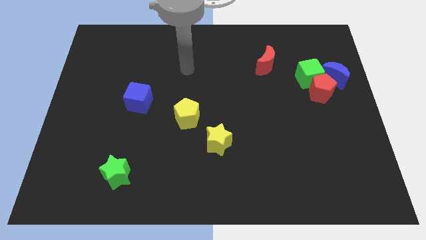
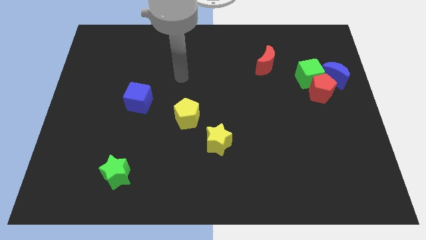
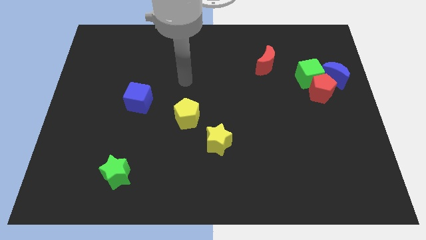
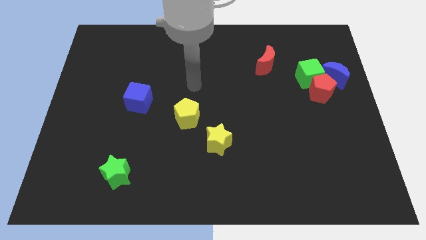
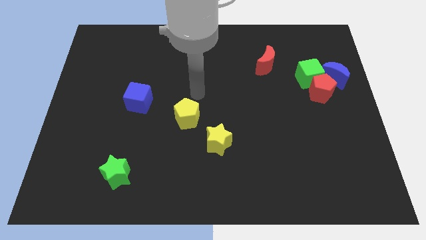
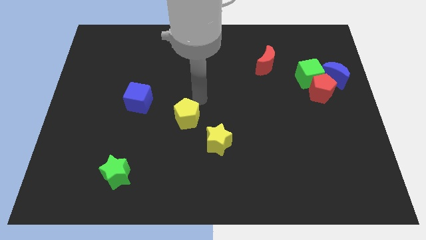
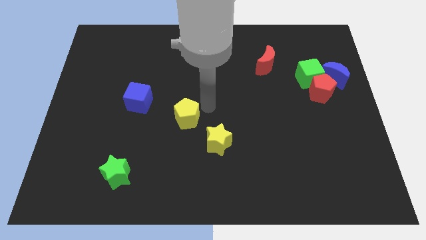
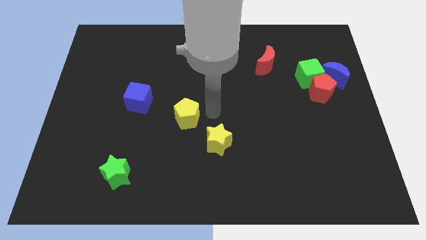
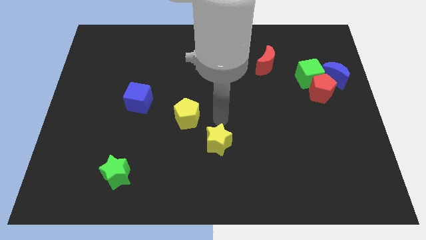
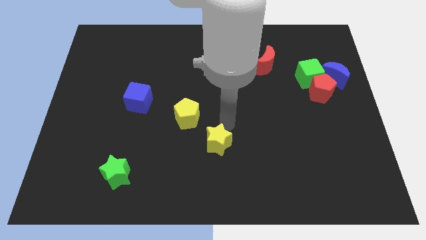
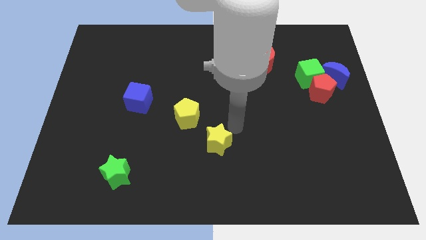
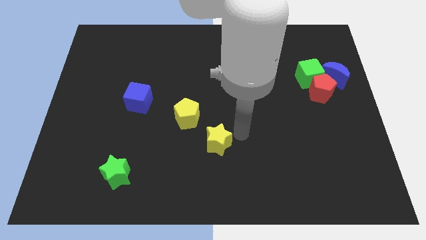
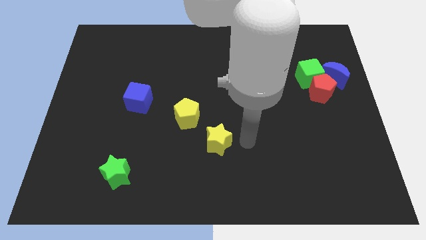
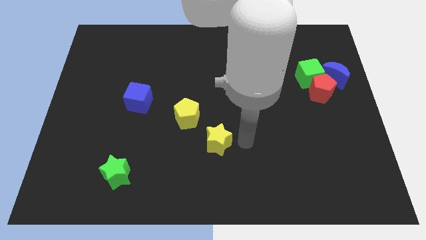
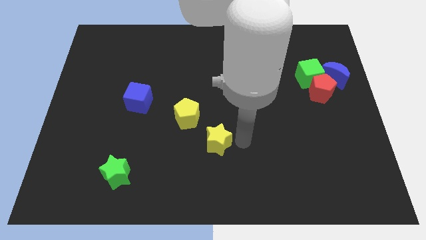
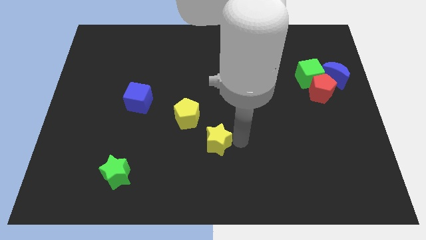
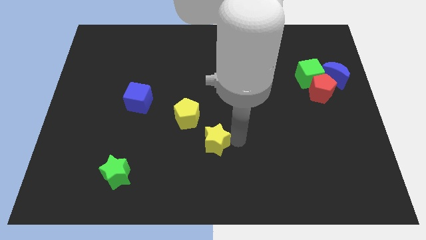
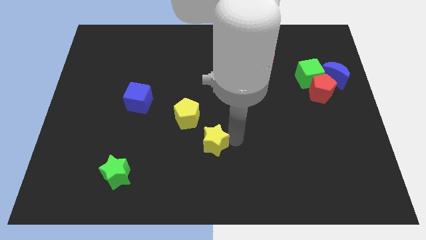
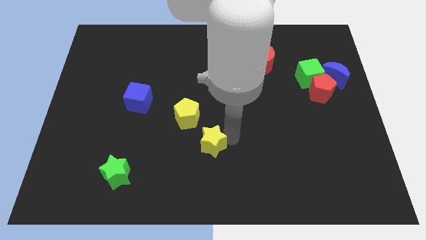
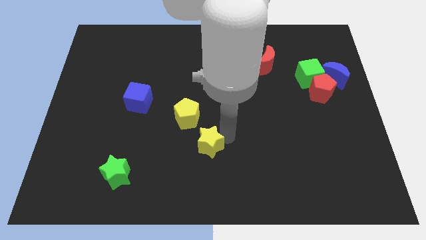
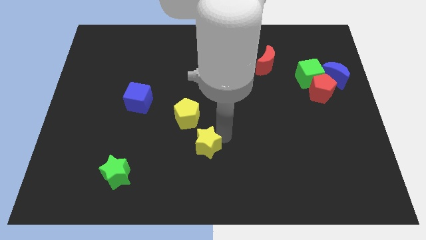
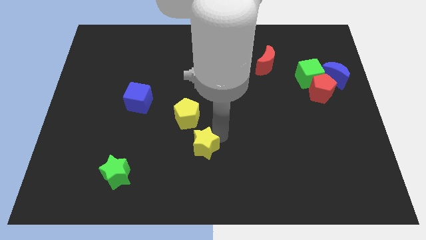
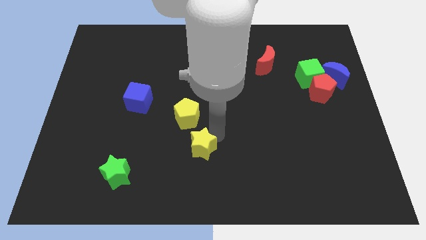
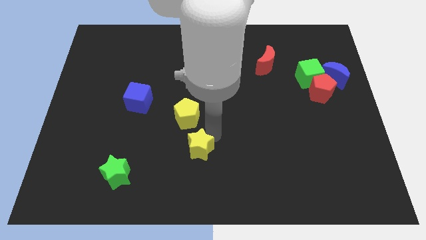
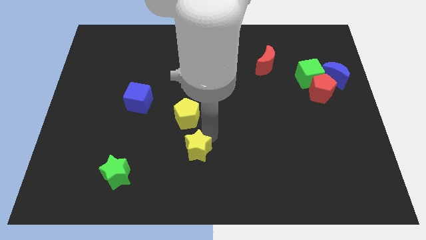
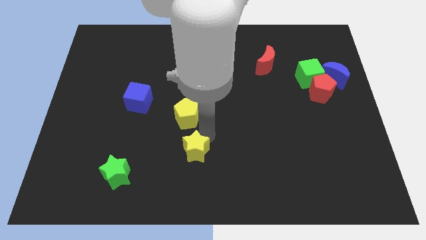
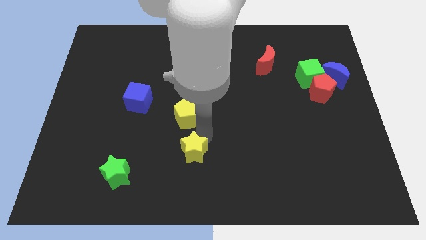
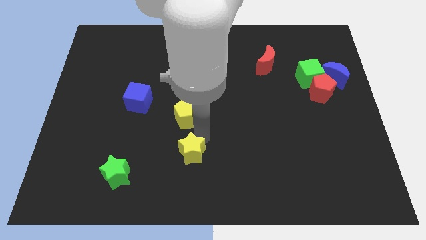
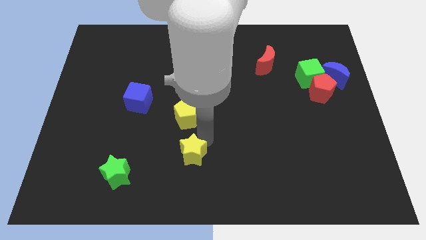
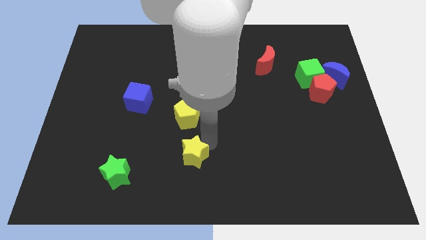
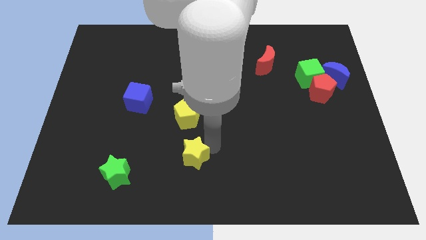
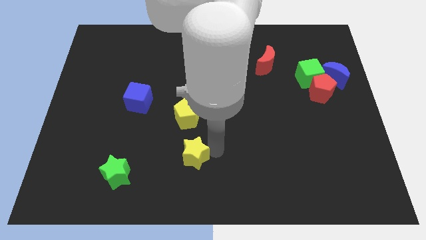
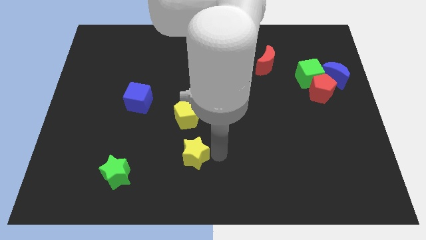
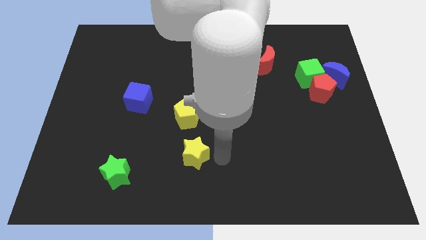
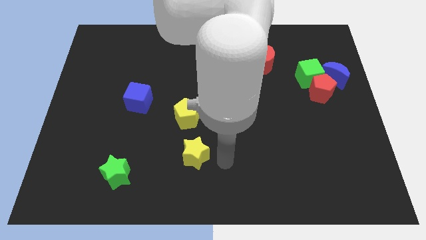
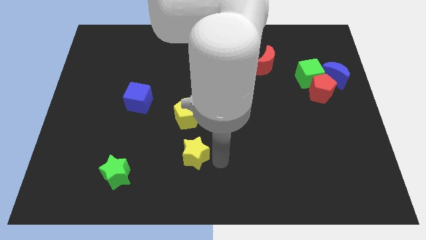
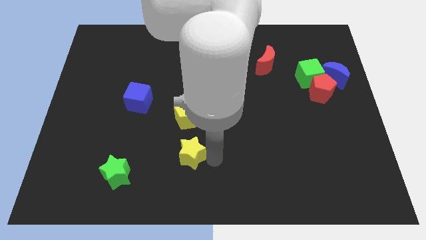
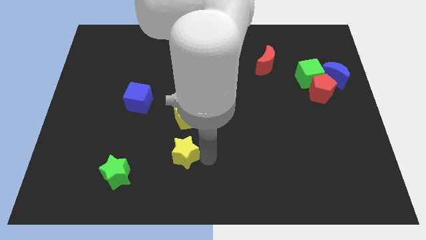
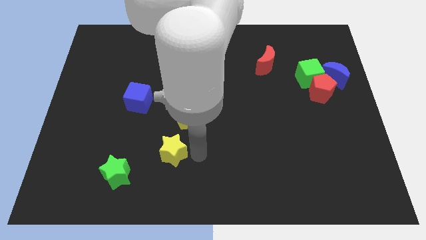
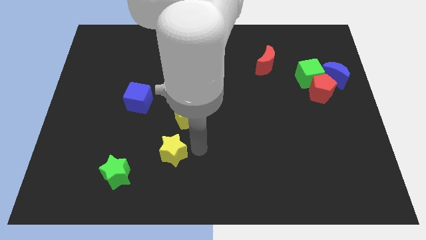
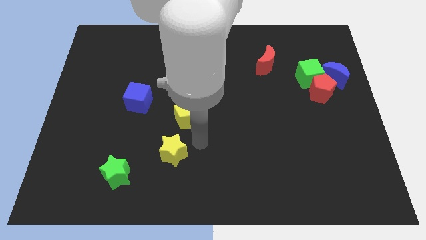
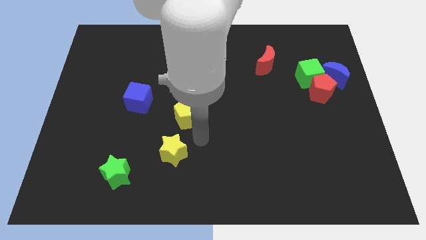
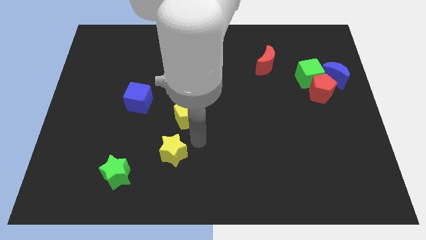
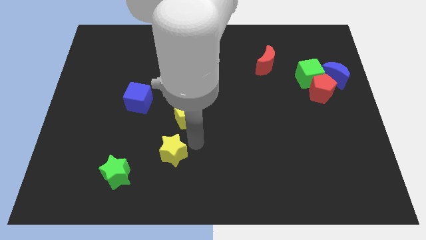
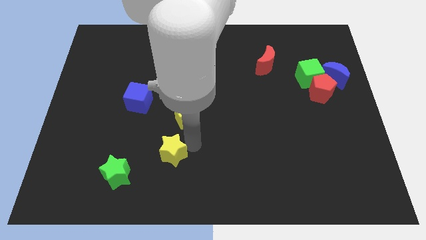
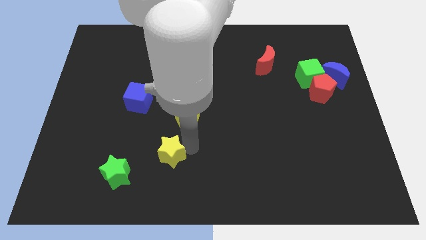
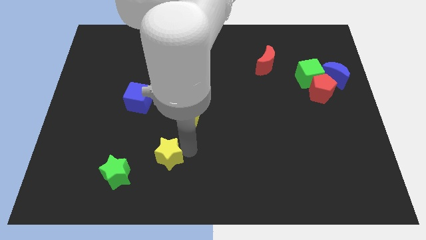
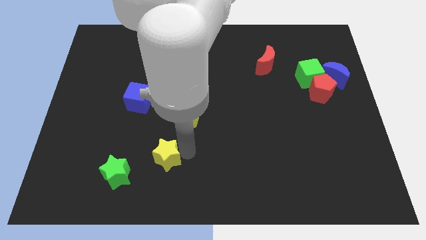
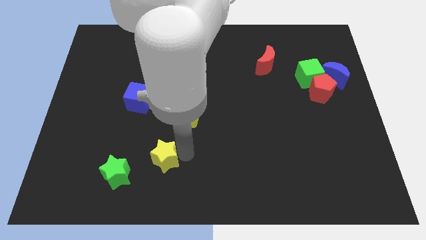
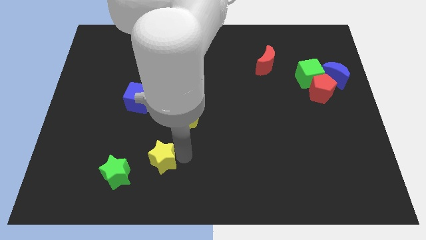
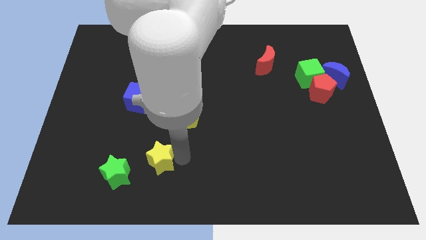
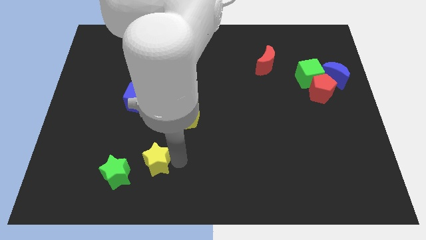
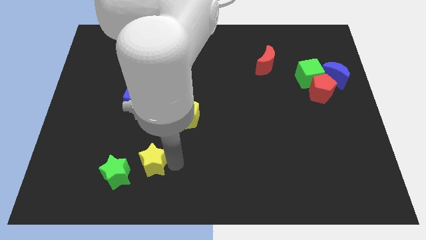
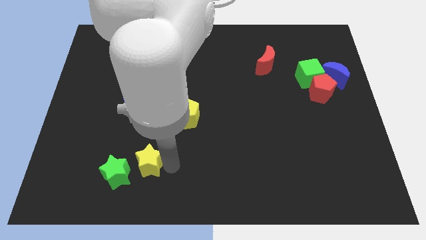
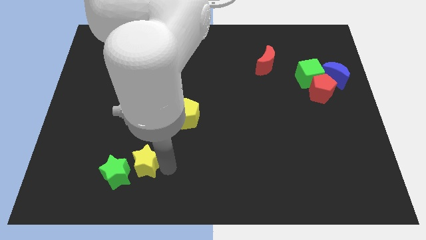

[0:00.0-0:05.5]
push the yellow star next to the green star

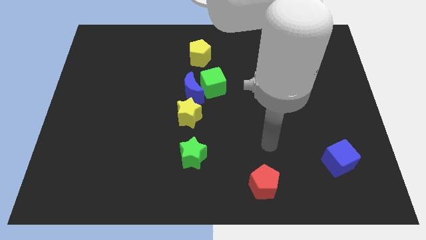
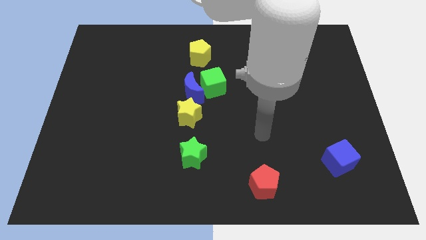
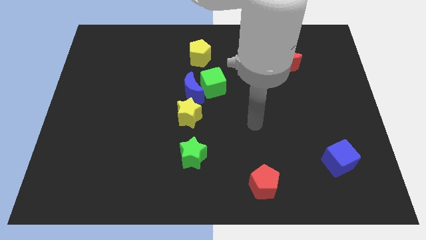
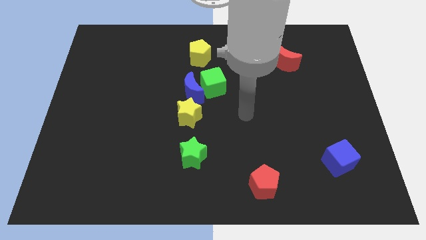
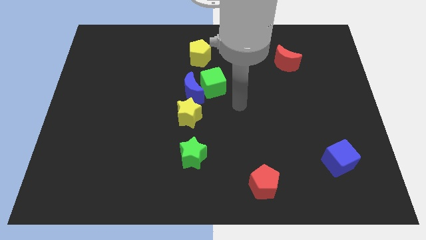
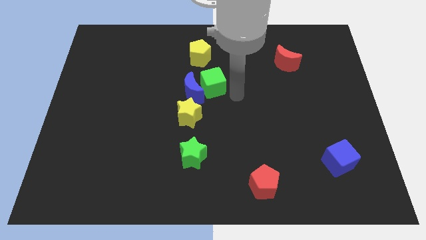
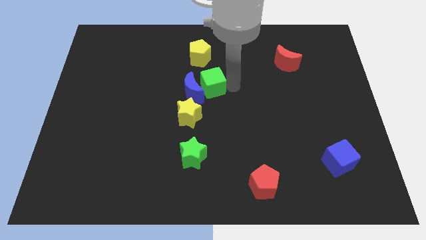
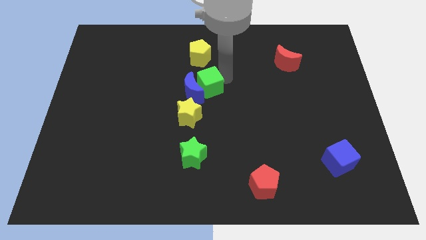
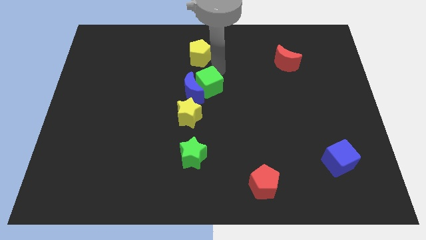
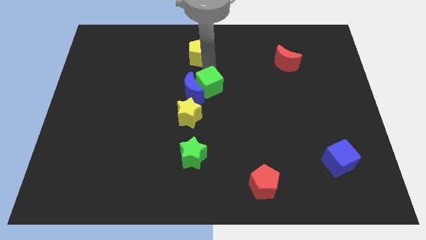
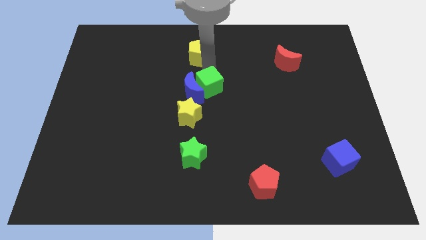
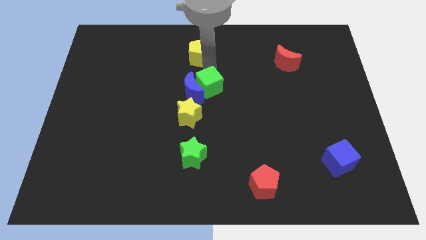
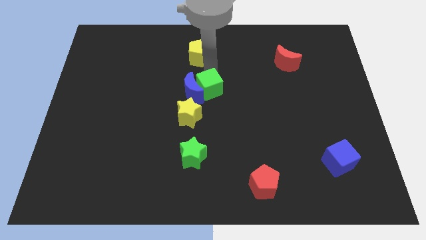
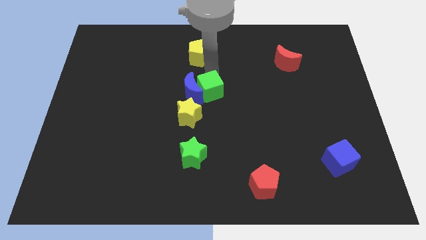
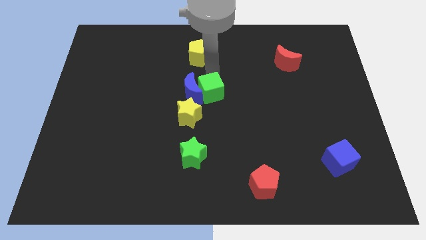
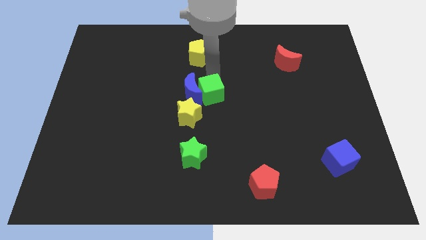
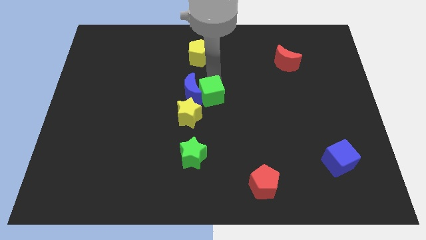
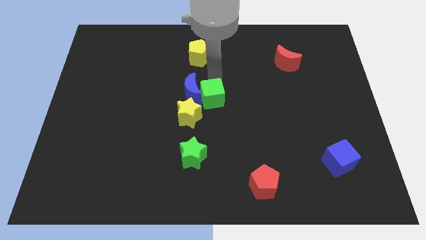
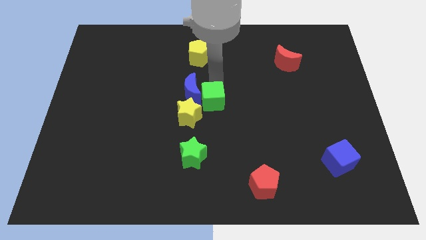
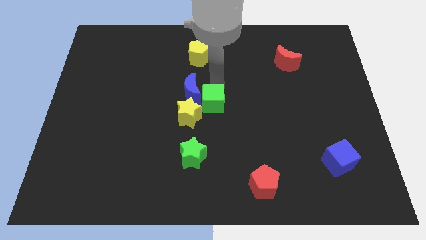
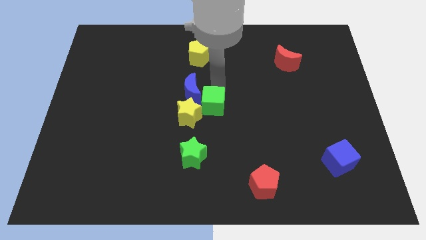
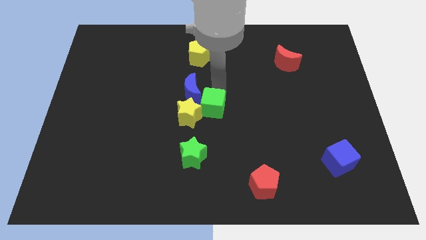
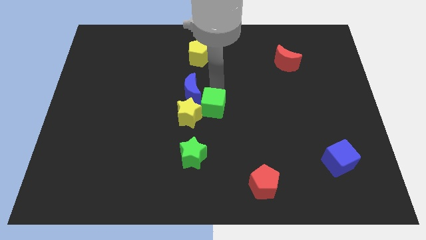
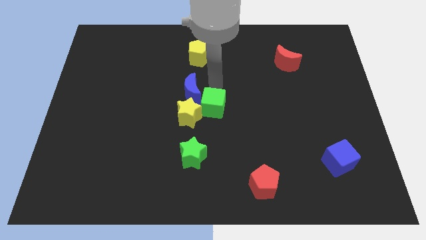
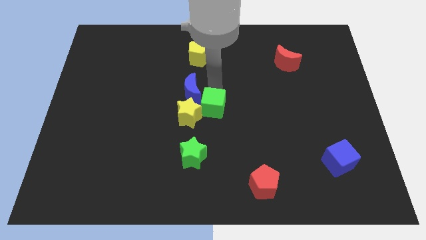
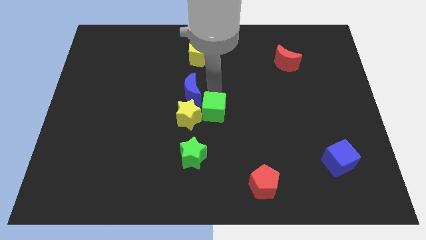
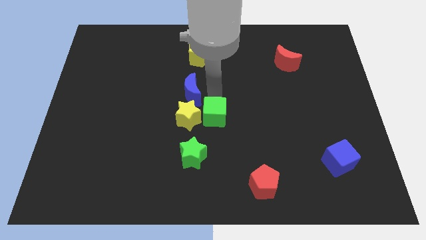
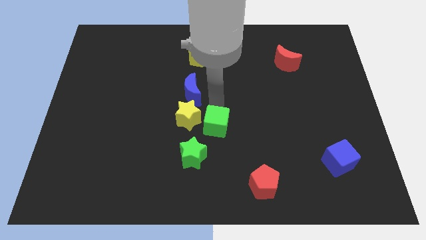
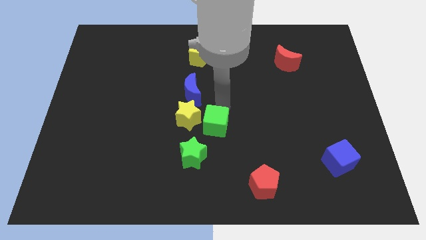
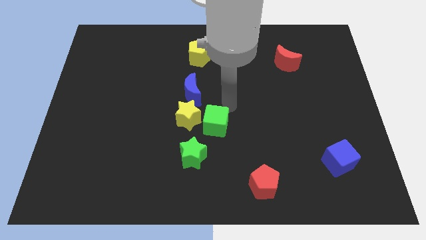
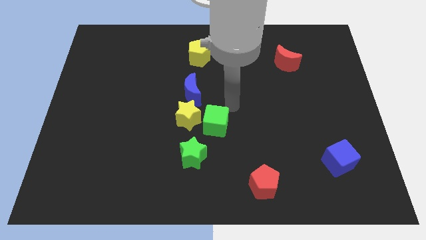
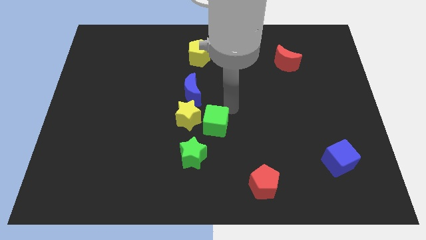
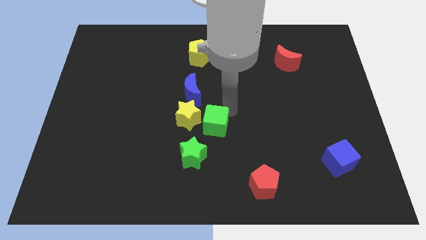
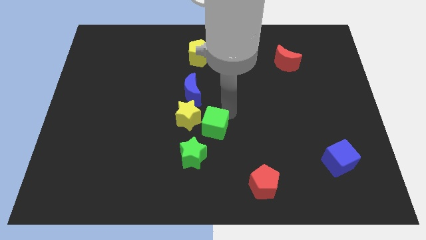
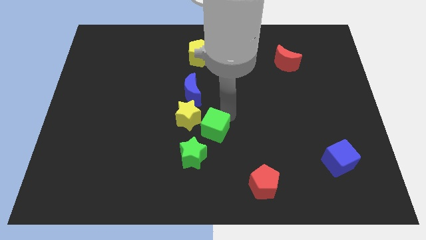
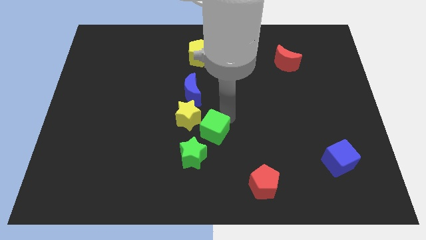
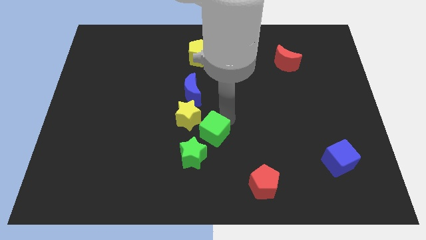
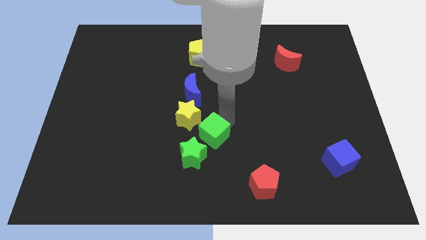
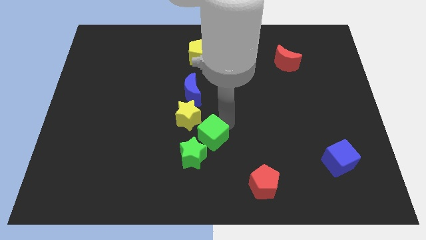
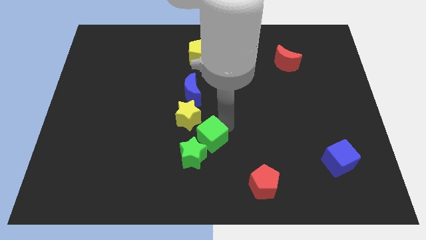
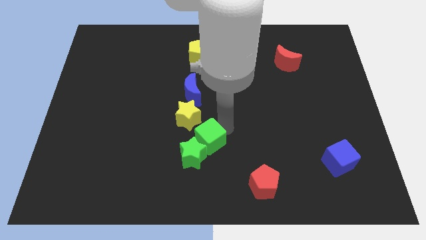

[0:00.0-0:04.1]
put the green cube to the green star
